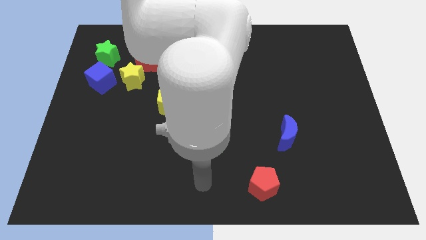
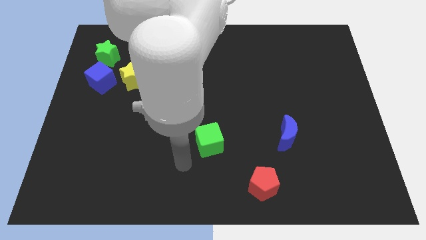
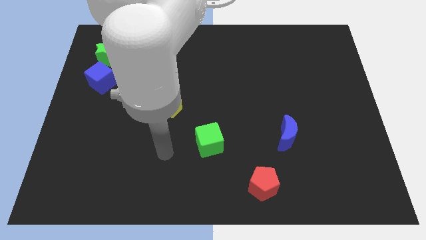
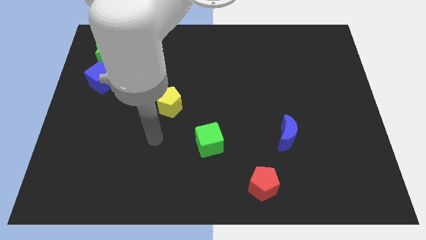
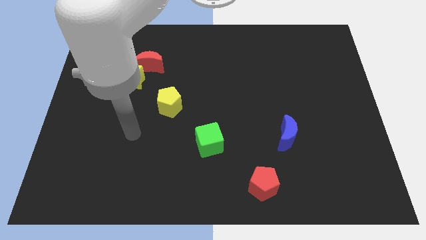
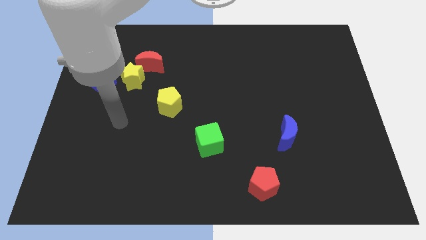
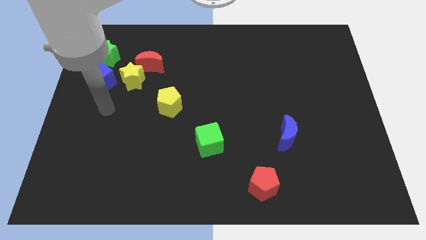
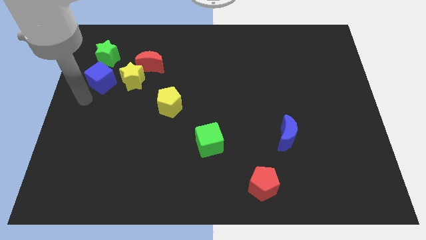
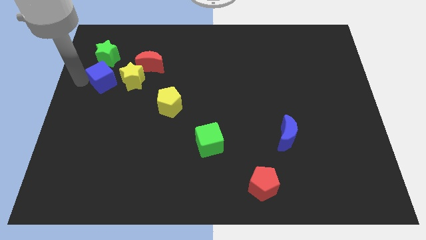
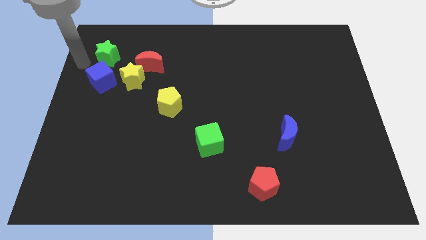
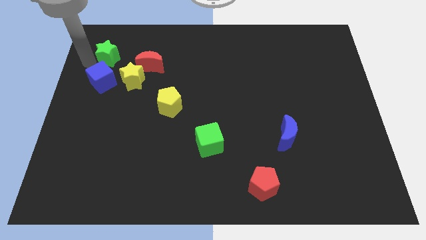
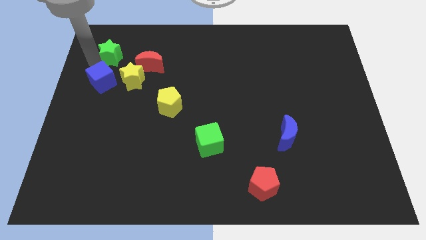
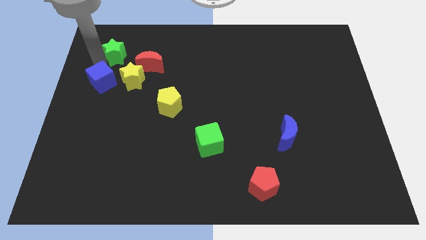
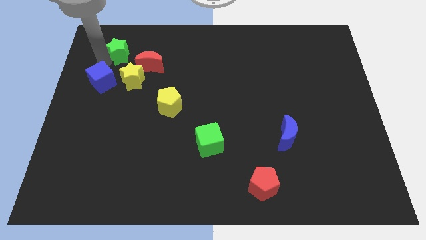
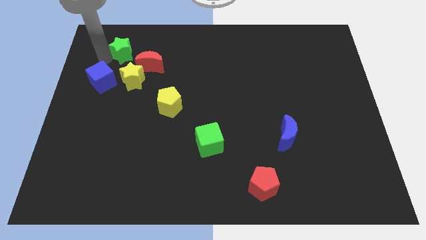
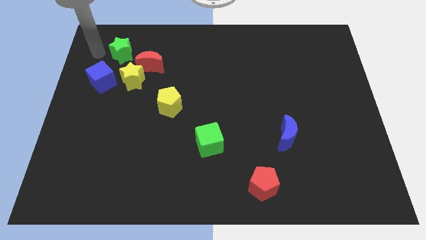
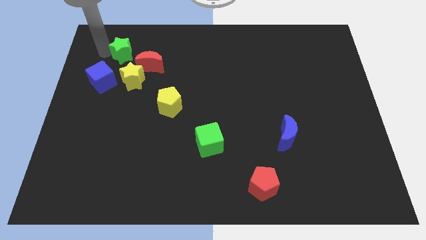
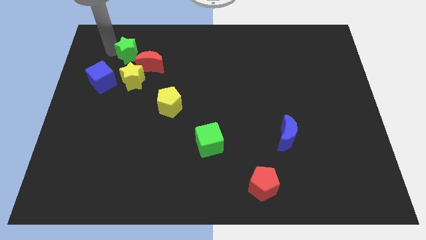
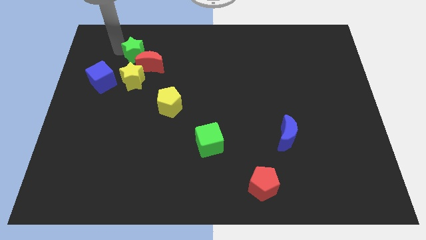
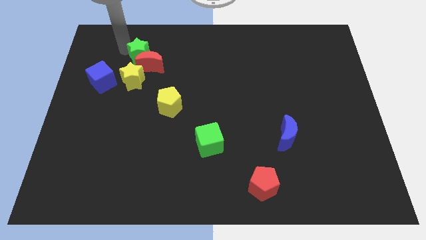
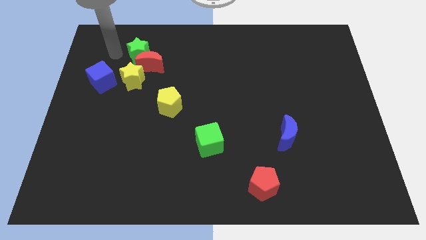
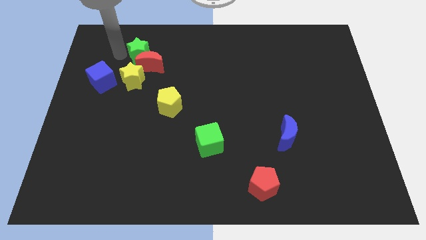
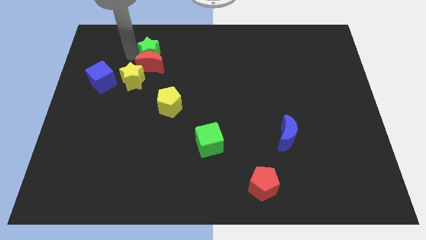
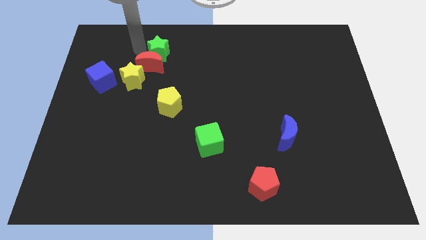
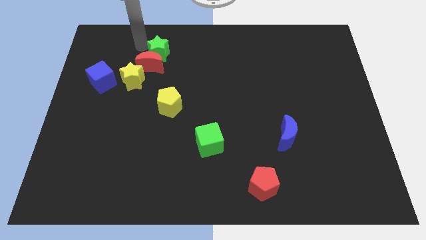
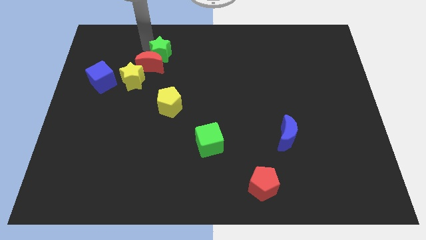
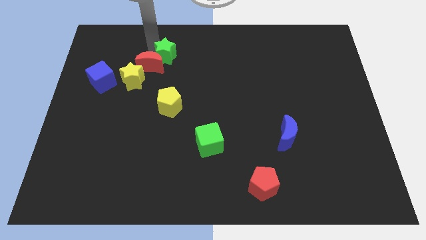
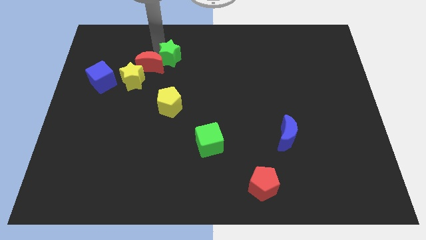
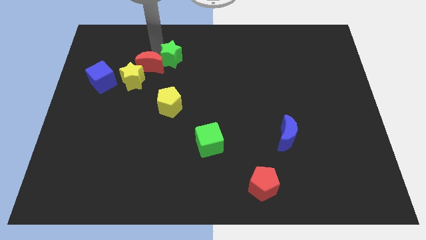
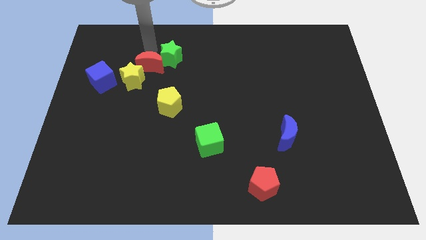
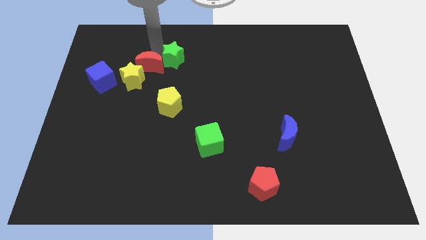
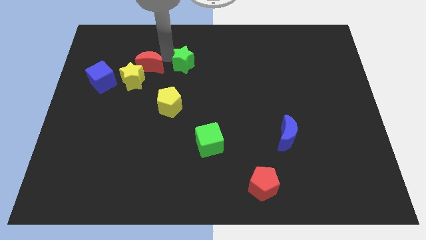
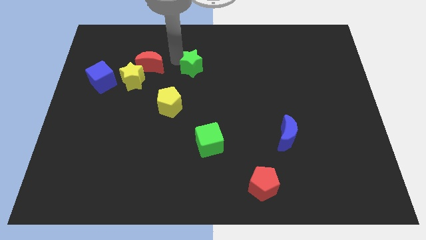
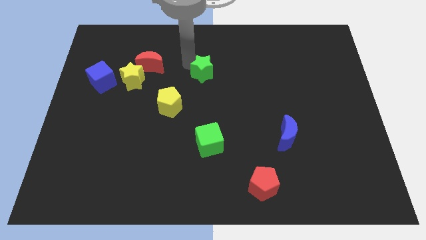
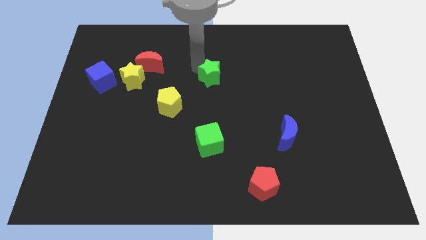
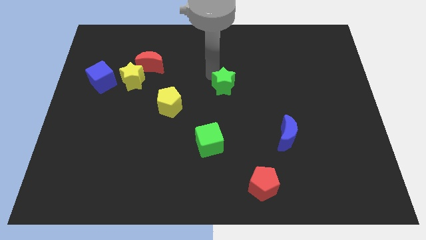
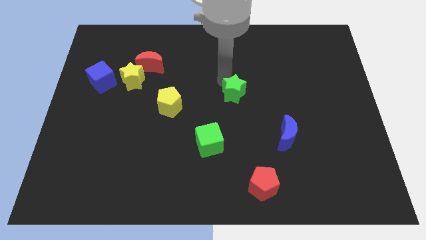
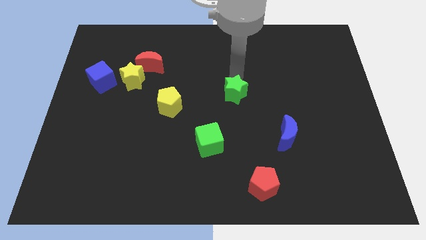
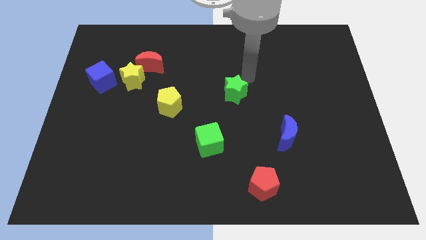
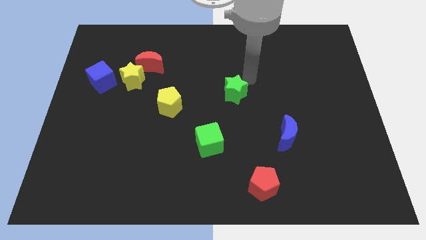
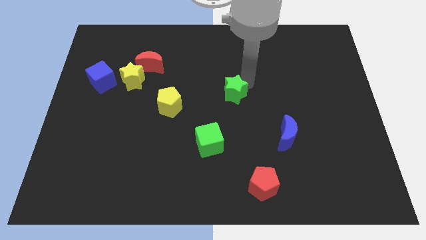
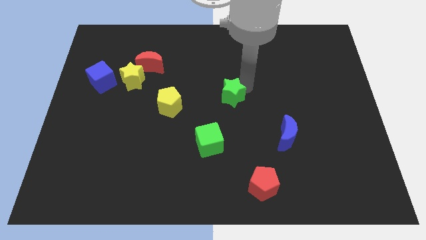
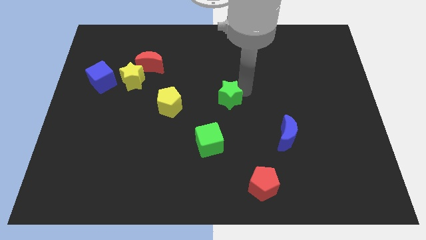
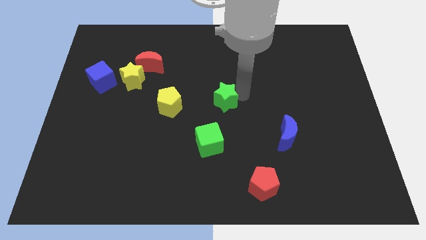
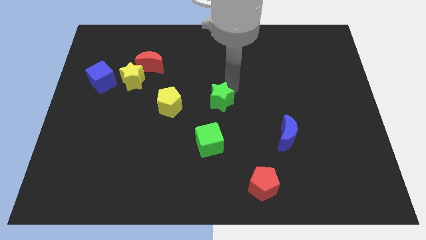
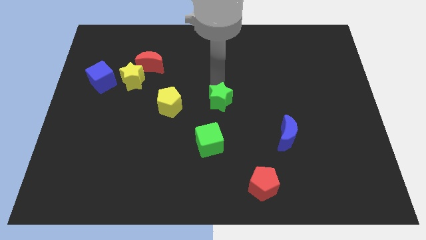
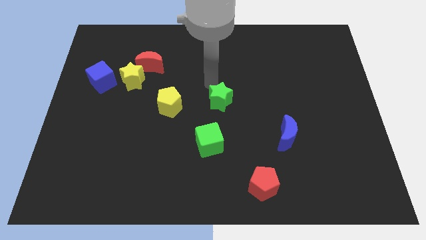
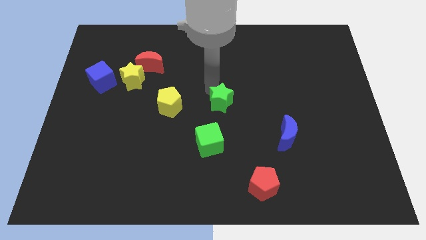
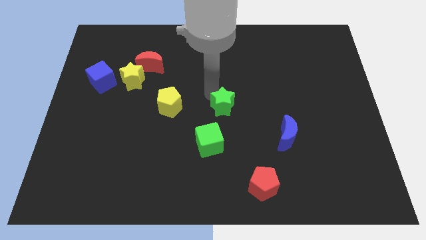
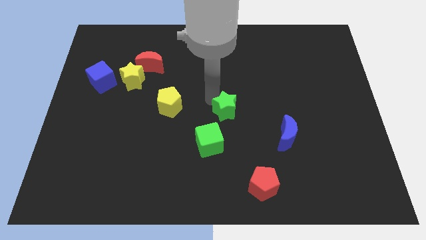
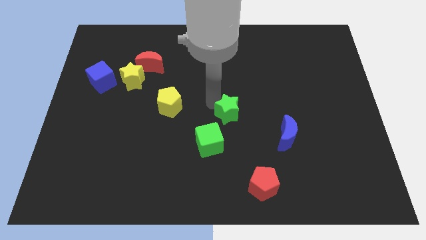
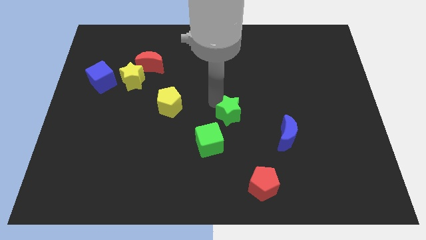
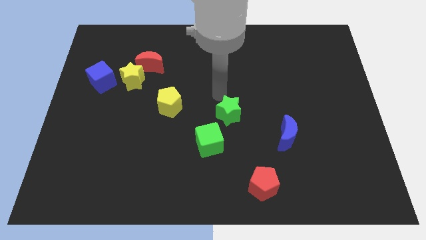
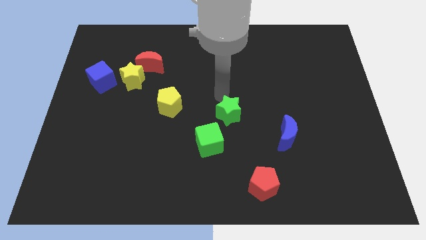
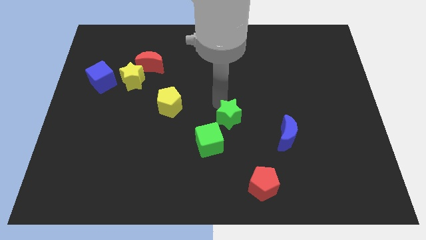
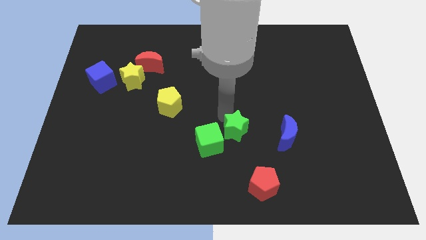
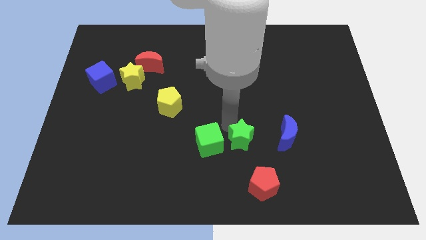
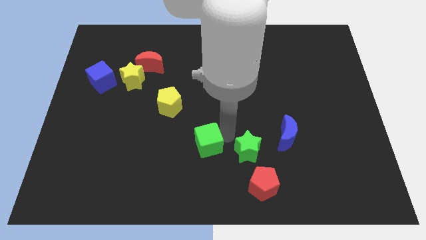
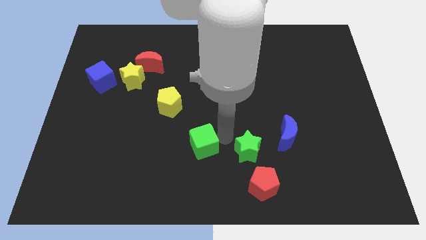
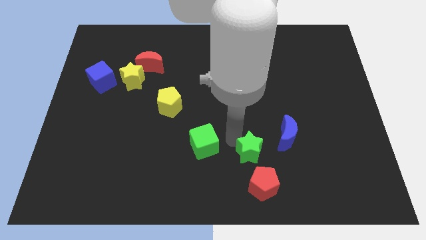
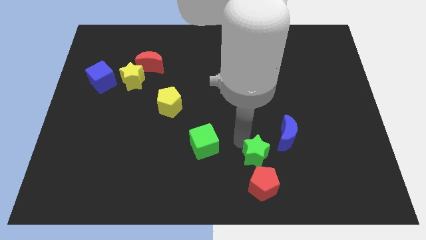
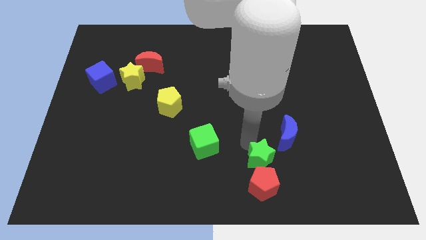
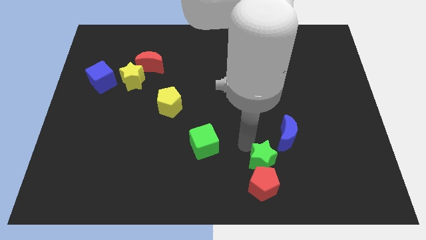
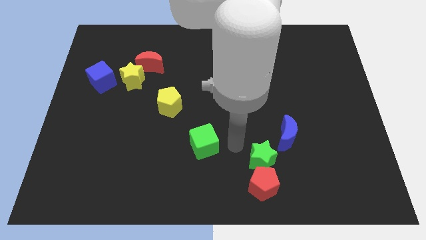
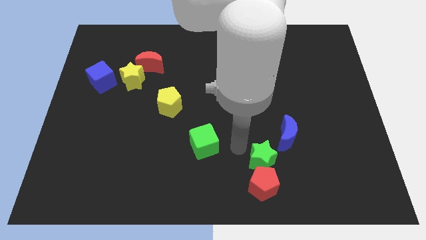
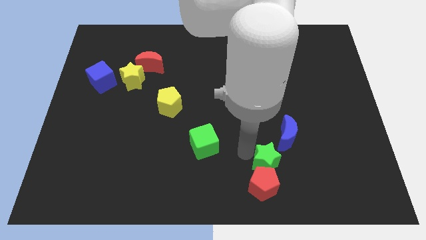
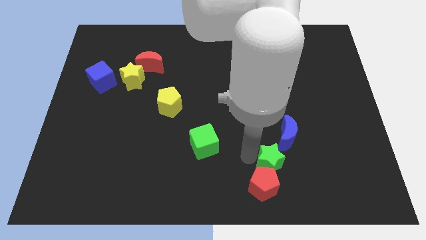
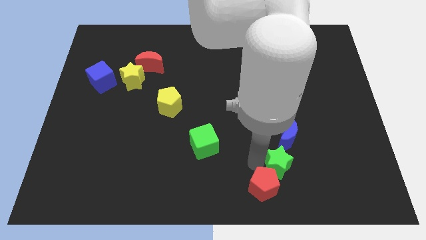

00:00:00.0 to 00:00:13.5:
put the green star right of the red pentagon

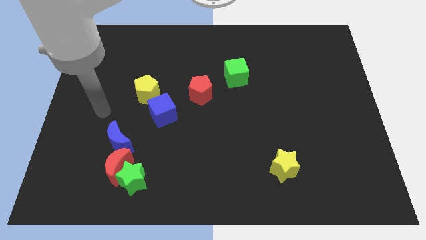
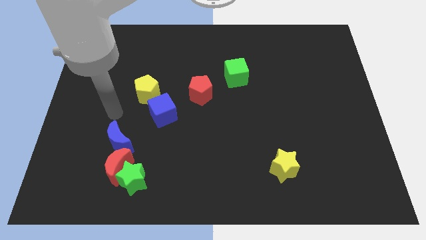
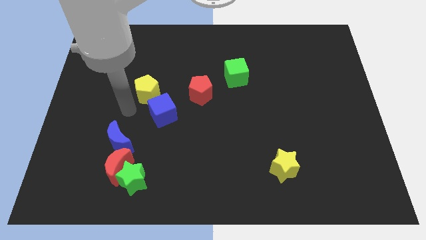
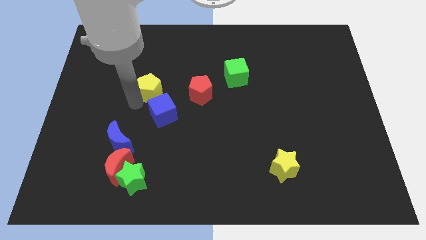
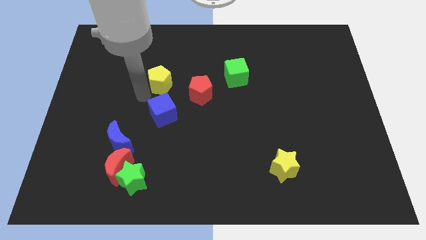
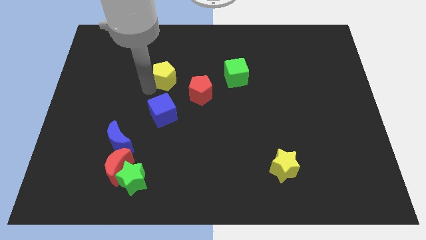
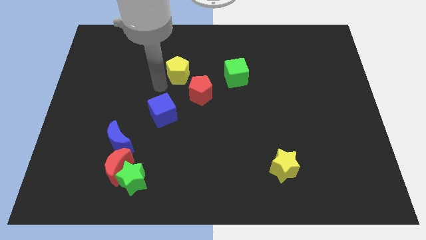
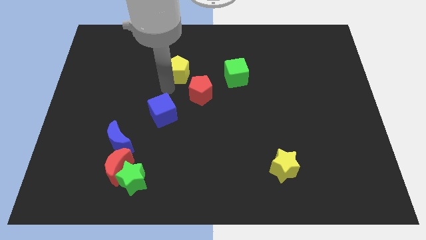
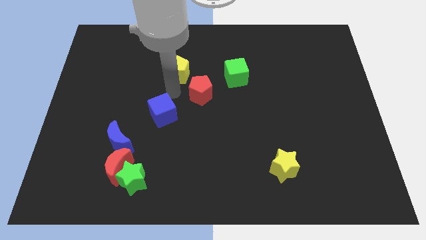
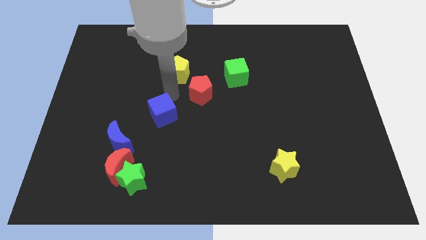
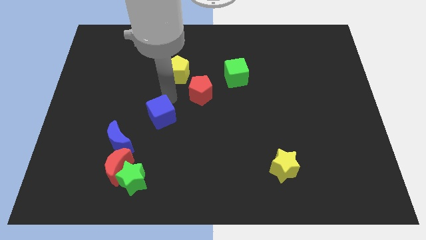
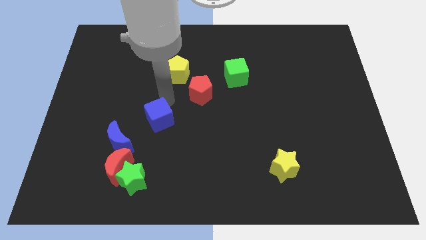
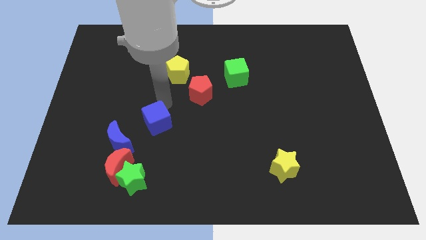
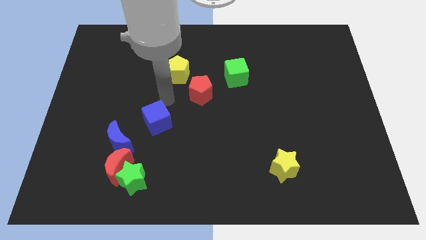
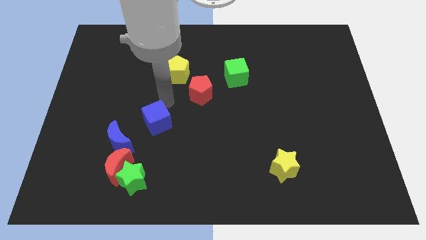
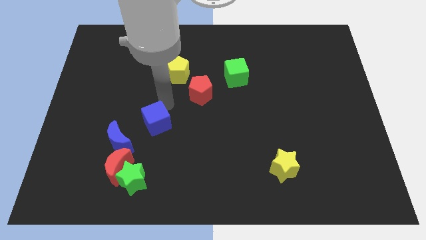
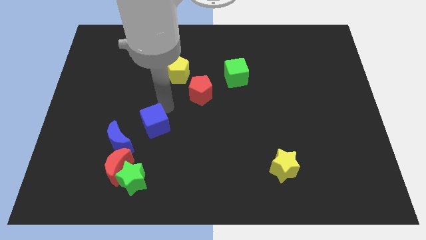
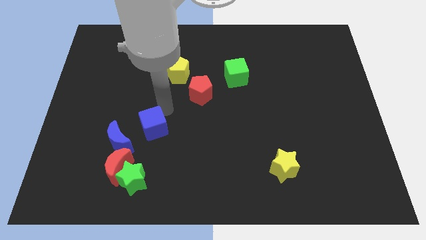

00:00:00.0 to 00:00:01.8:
slide the blue cube to the top right side of the red moon
